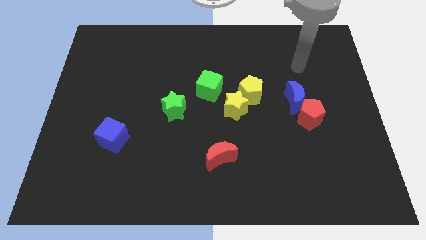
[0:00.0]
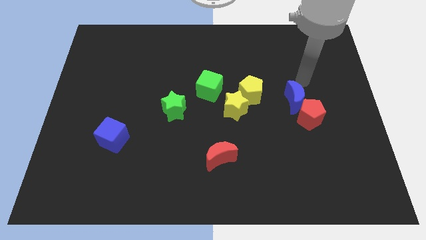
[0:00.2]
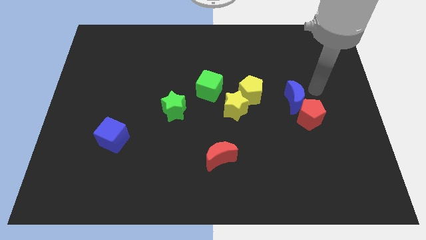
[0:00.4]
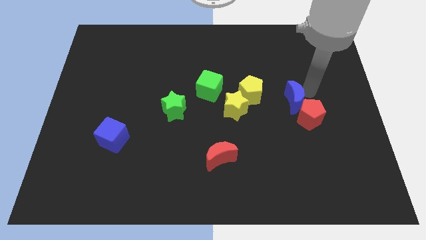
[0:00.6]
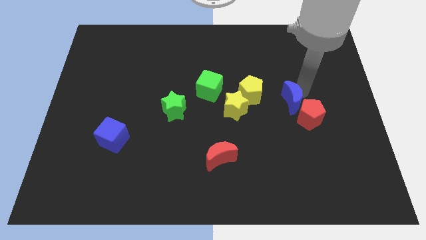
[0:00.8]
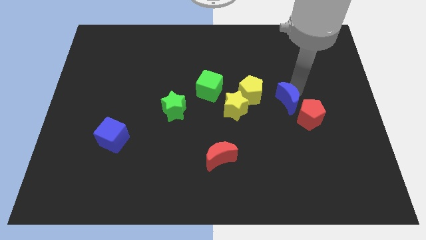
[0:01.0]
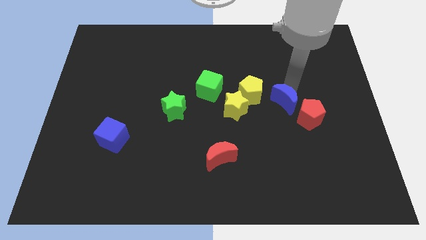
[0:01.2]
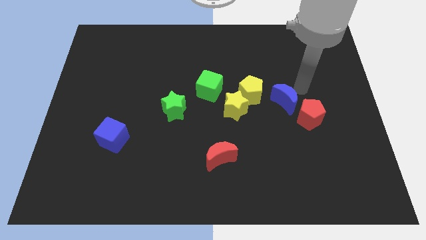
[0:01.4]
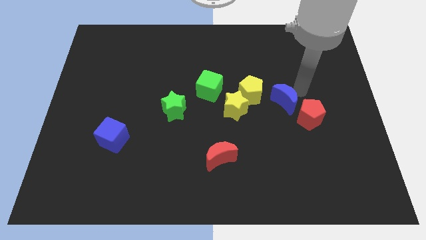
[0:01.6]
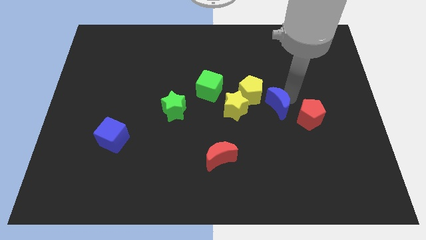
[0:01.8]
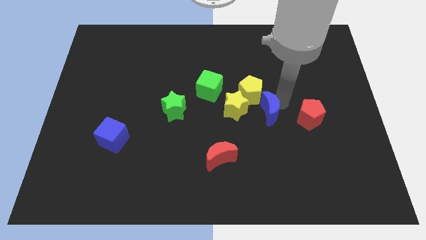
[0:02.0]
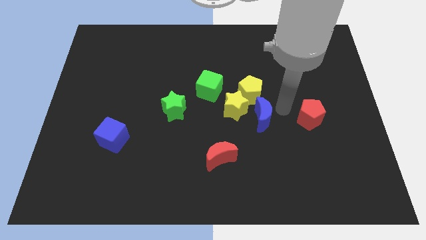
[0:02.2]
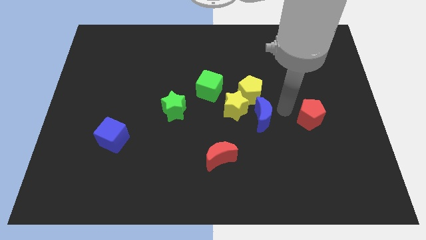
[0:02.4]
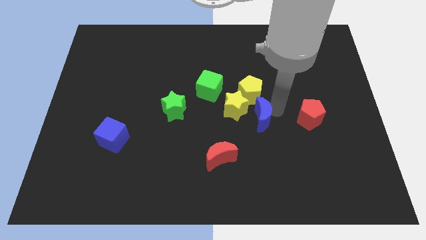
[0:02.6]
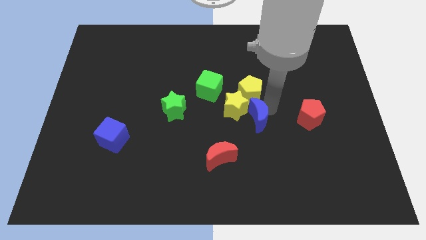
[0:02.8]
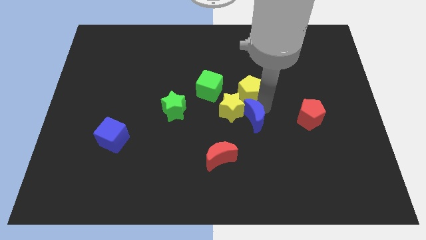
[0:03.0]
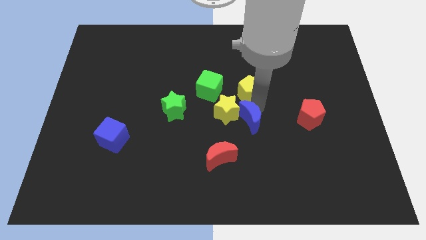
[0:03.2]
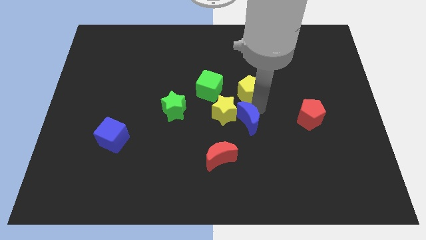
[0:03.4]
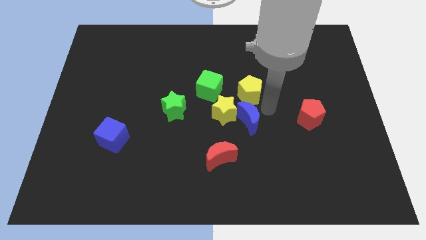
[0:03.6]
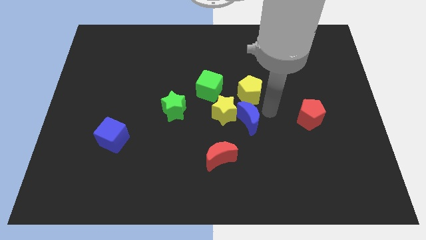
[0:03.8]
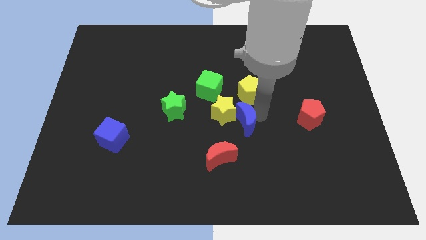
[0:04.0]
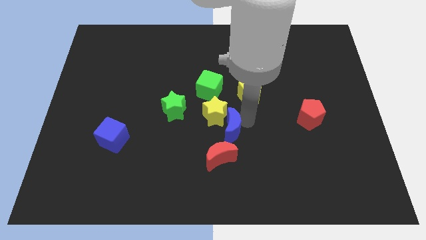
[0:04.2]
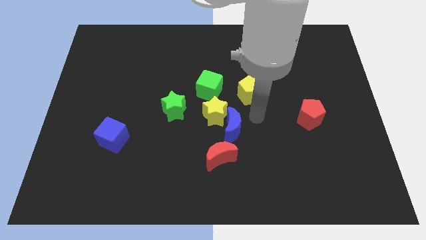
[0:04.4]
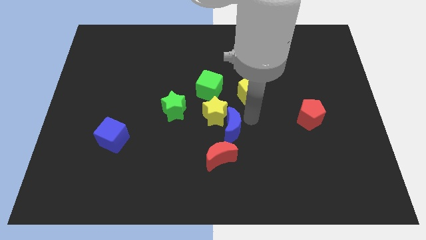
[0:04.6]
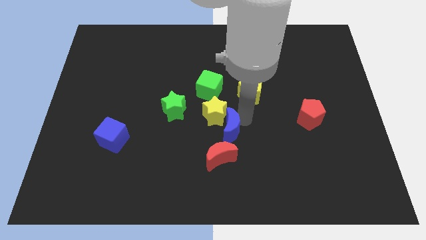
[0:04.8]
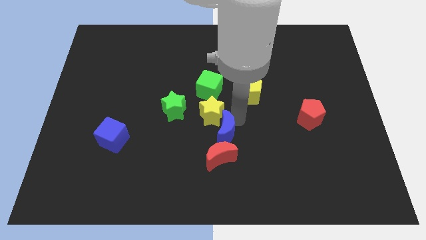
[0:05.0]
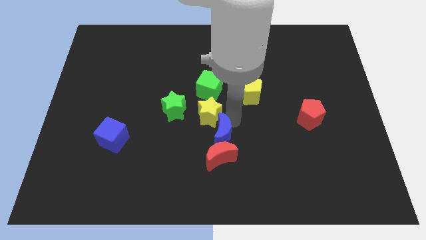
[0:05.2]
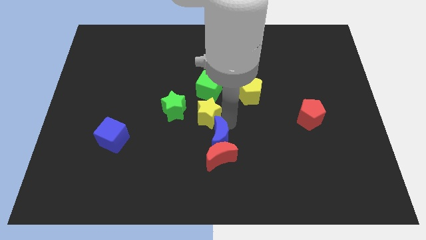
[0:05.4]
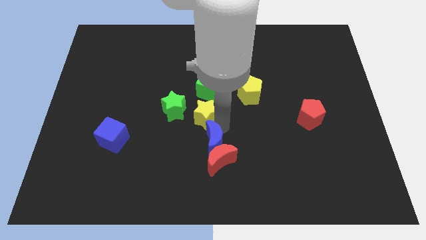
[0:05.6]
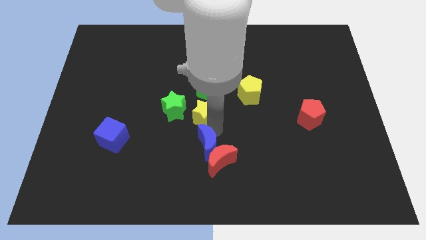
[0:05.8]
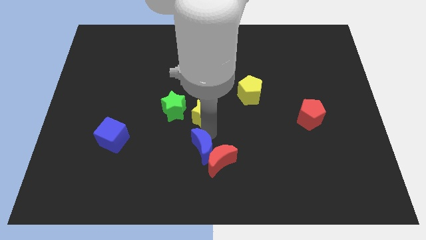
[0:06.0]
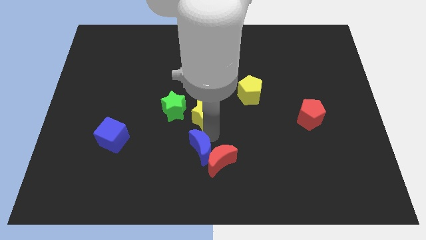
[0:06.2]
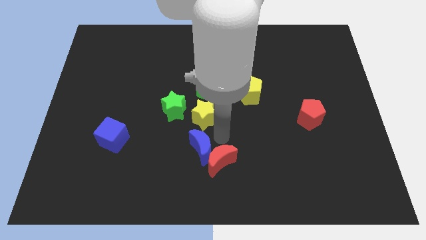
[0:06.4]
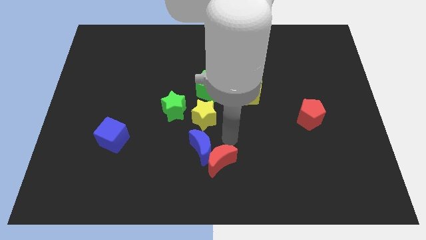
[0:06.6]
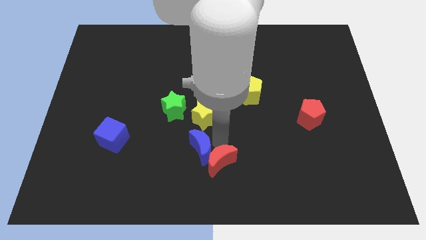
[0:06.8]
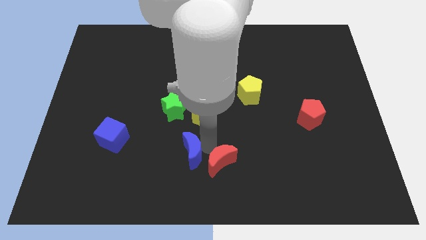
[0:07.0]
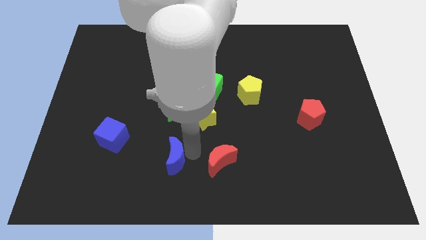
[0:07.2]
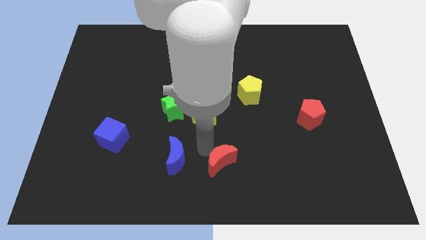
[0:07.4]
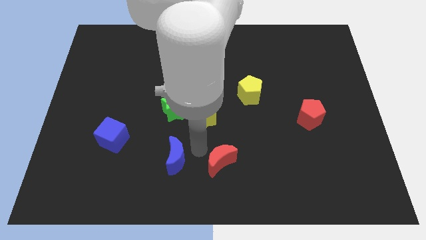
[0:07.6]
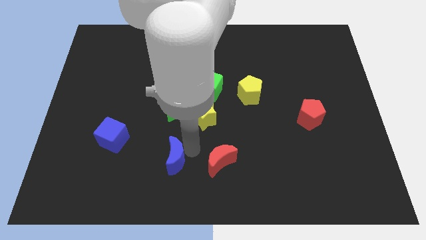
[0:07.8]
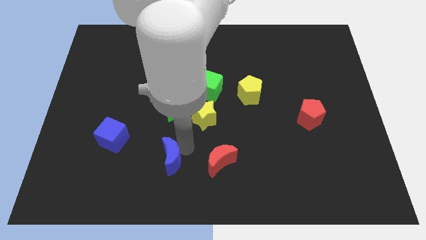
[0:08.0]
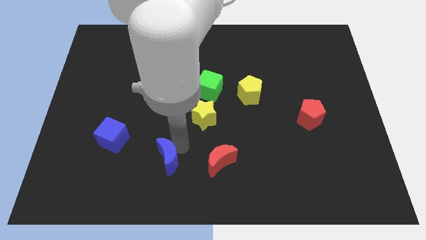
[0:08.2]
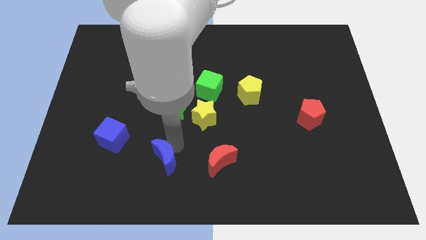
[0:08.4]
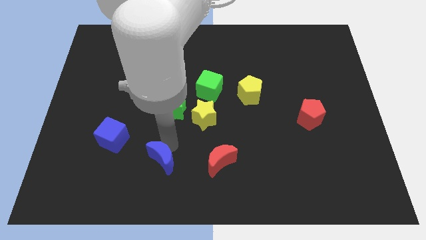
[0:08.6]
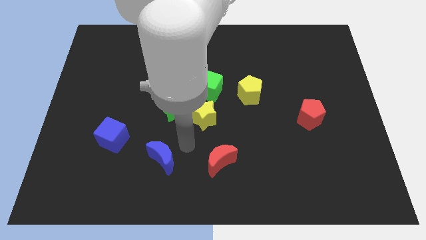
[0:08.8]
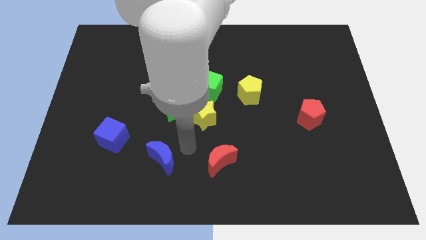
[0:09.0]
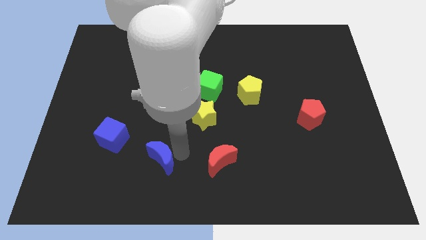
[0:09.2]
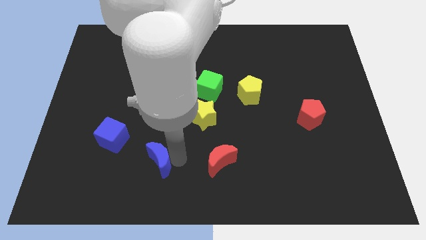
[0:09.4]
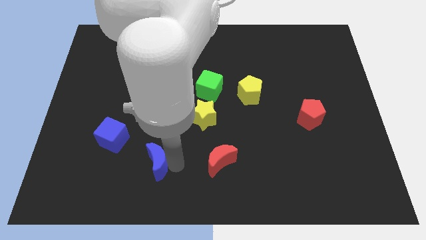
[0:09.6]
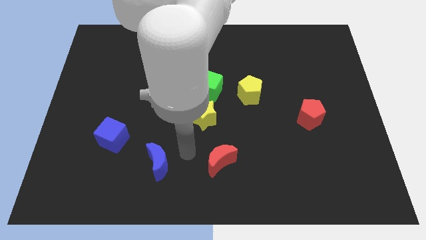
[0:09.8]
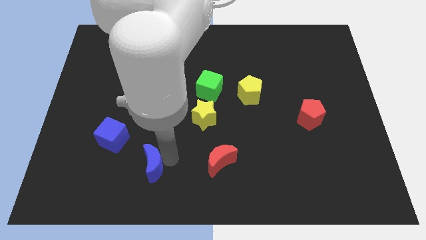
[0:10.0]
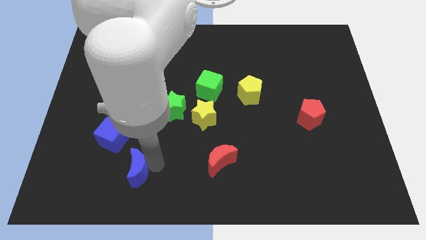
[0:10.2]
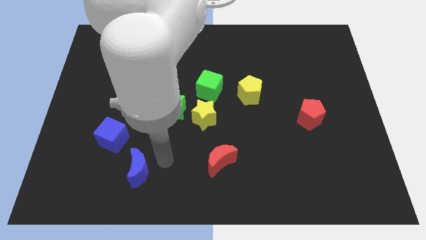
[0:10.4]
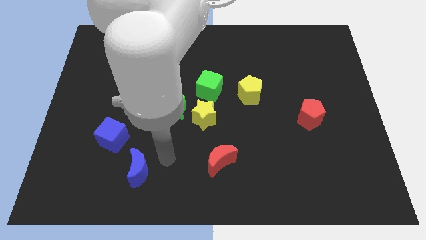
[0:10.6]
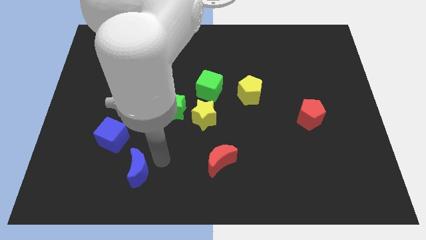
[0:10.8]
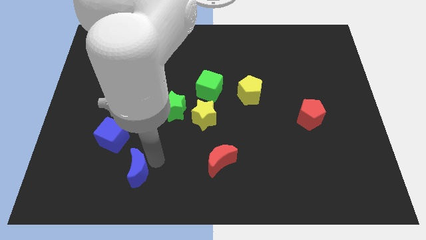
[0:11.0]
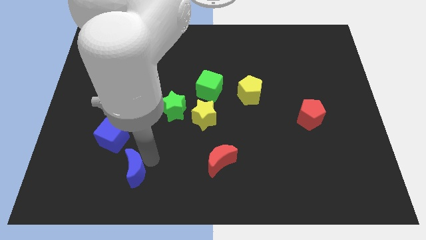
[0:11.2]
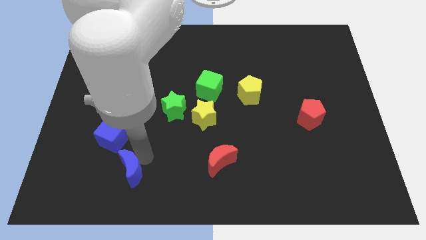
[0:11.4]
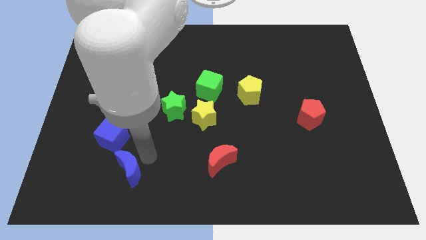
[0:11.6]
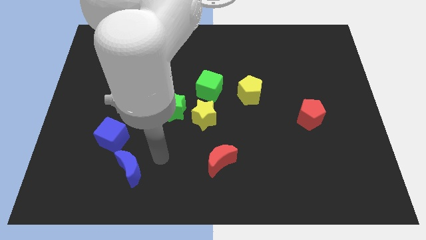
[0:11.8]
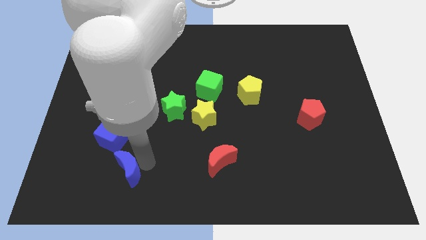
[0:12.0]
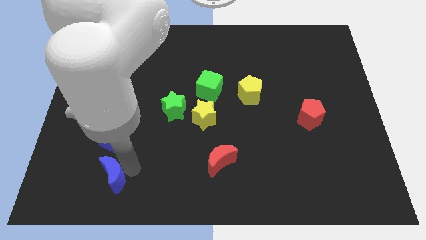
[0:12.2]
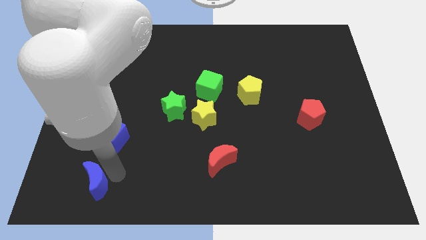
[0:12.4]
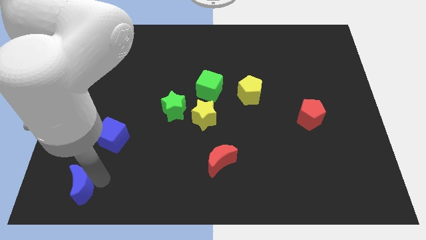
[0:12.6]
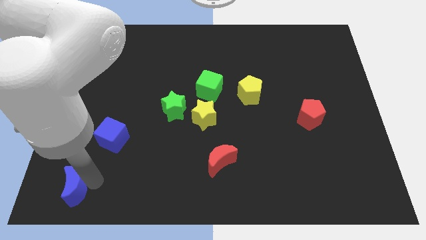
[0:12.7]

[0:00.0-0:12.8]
move the blue moon to the bottom left of the board

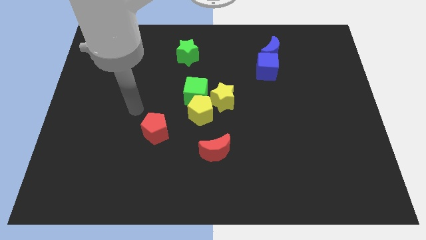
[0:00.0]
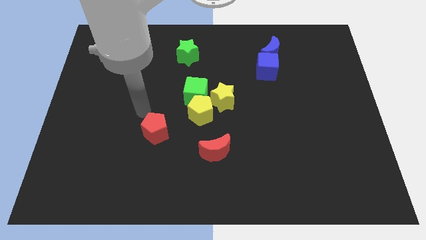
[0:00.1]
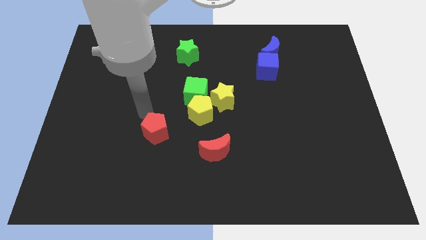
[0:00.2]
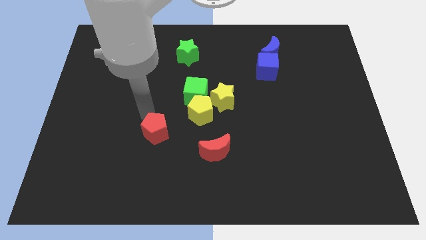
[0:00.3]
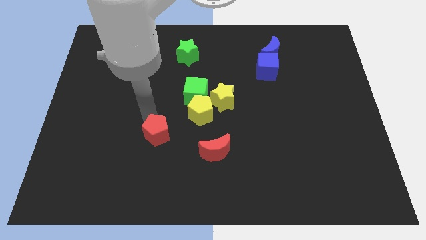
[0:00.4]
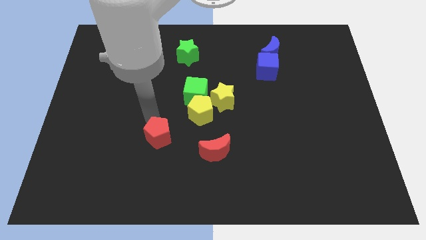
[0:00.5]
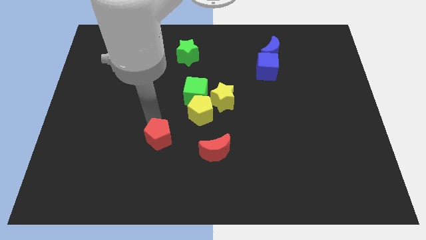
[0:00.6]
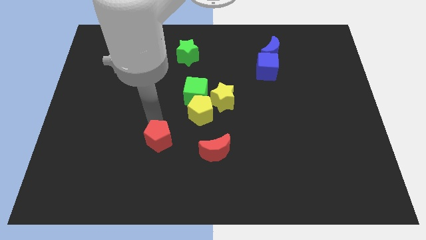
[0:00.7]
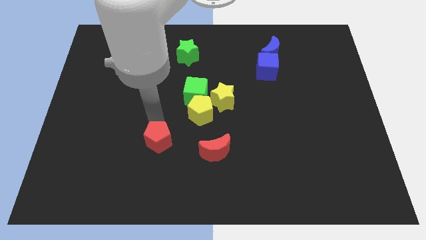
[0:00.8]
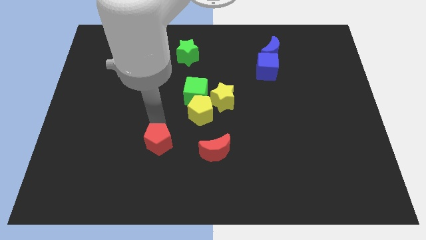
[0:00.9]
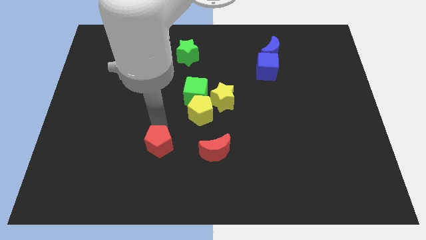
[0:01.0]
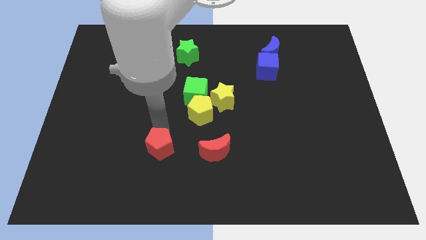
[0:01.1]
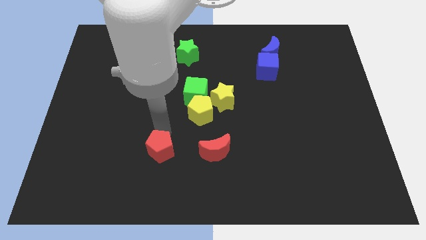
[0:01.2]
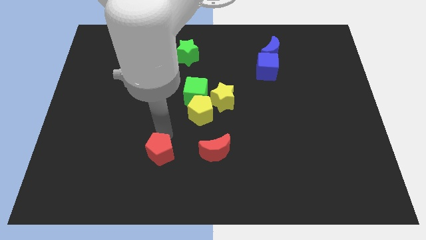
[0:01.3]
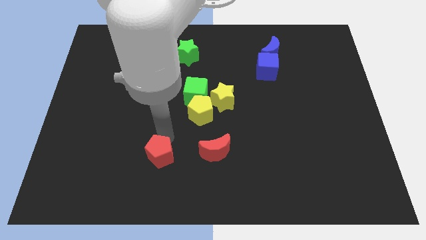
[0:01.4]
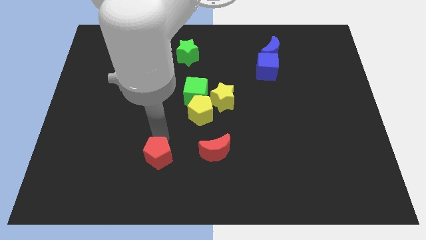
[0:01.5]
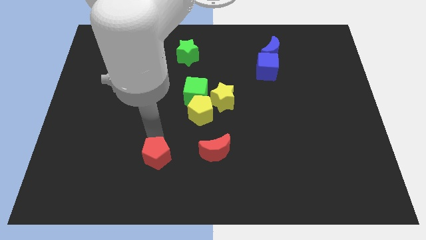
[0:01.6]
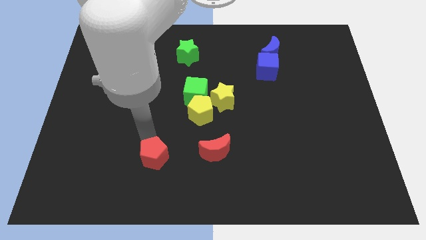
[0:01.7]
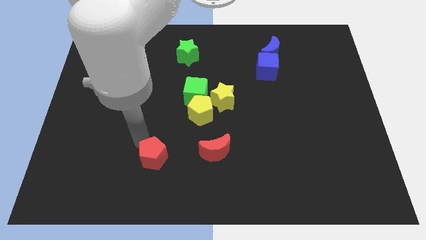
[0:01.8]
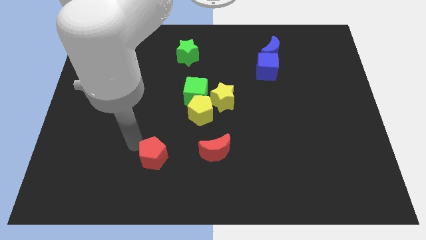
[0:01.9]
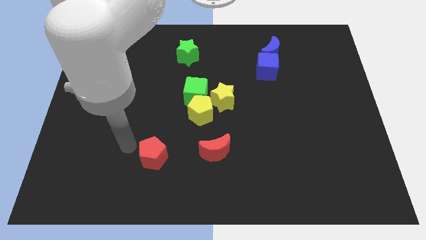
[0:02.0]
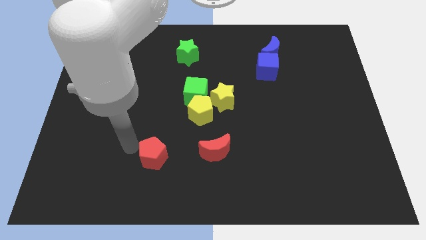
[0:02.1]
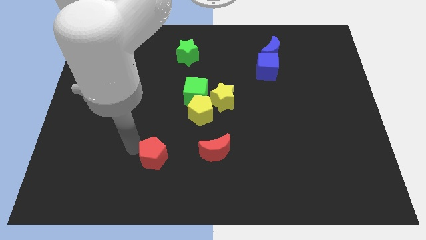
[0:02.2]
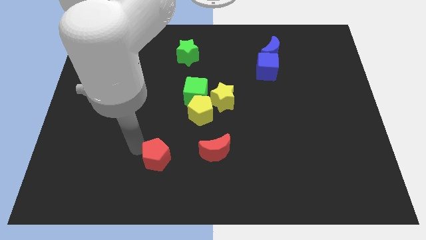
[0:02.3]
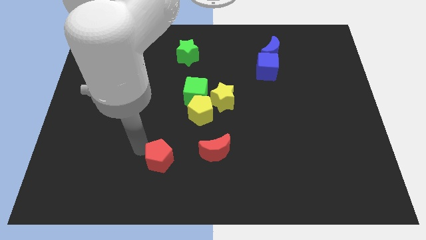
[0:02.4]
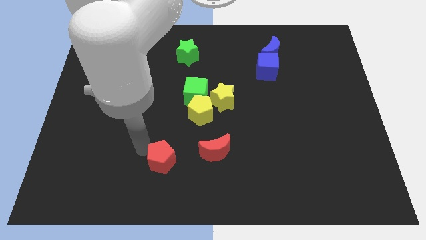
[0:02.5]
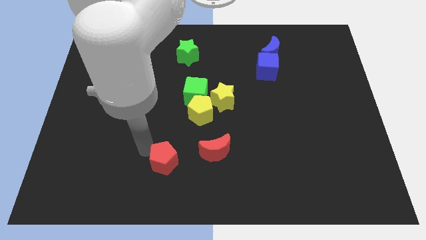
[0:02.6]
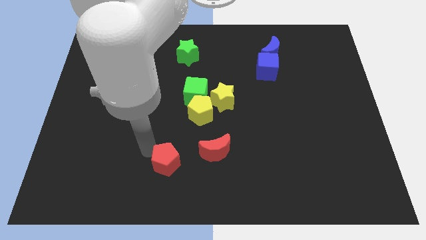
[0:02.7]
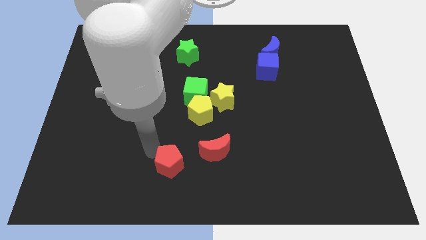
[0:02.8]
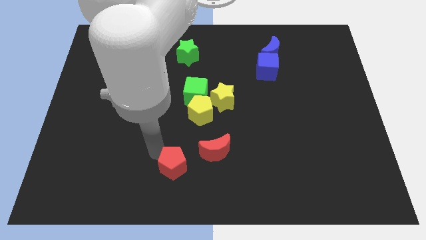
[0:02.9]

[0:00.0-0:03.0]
move the red pentagon to the bottom side
